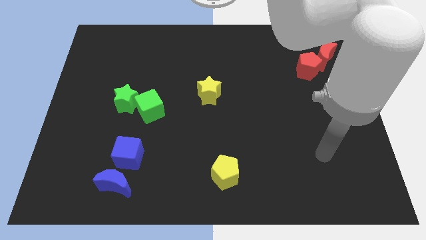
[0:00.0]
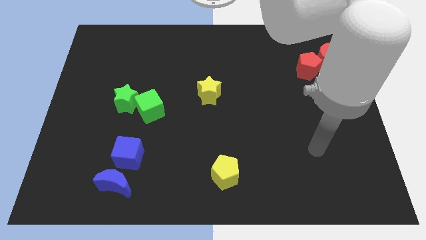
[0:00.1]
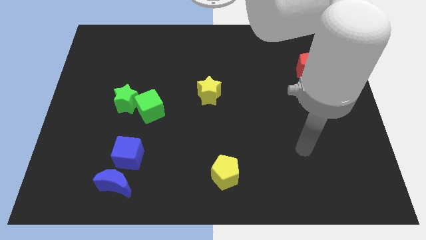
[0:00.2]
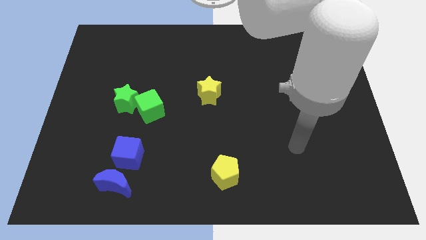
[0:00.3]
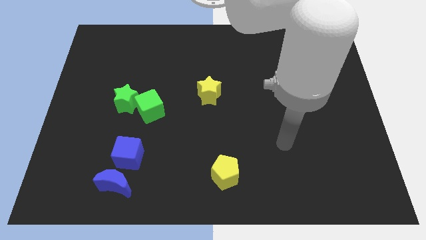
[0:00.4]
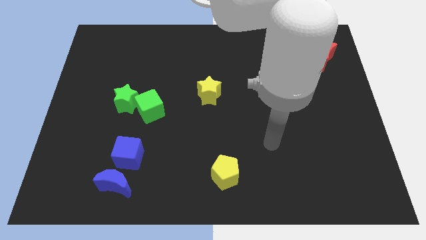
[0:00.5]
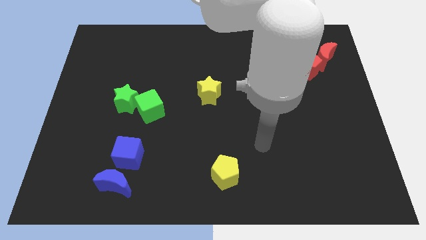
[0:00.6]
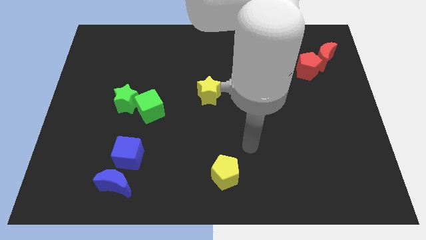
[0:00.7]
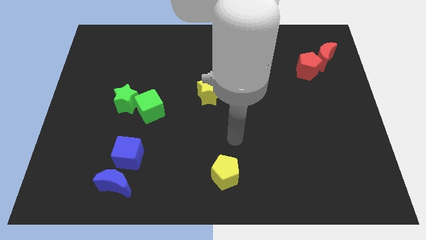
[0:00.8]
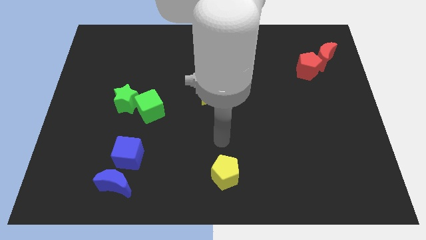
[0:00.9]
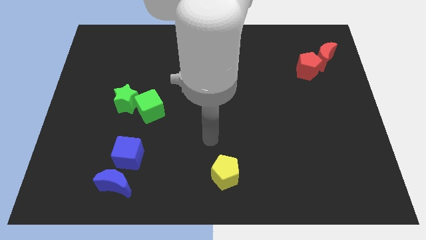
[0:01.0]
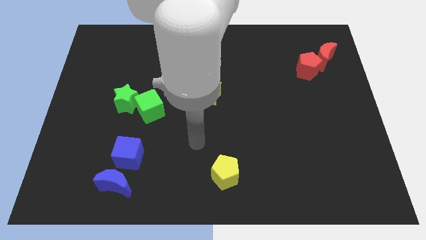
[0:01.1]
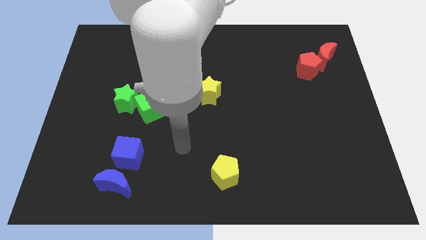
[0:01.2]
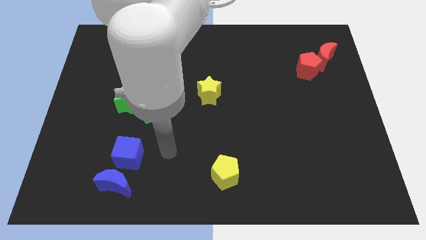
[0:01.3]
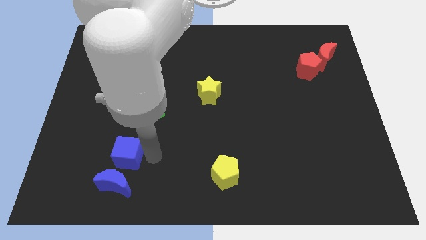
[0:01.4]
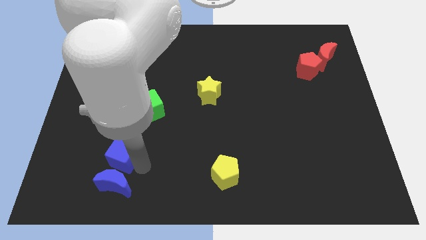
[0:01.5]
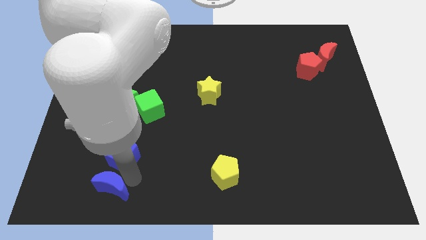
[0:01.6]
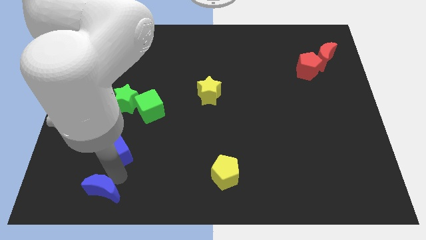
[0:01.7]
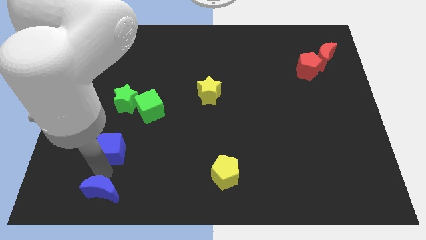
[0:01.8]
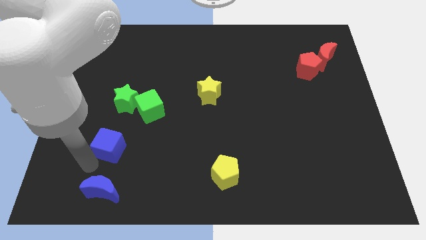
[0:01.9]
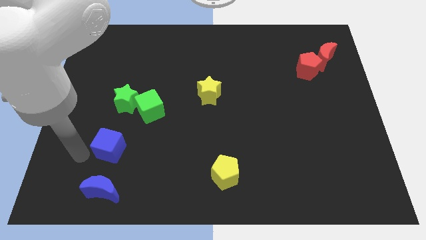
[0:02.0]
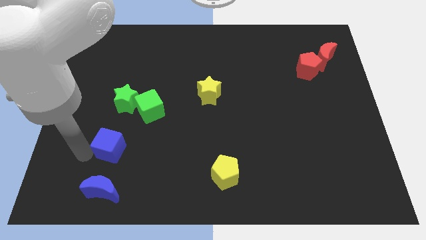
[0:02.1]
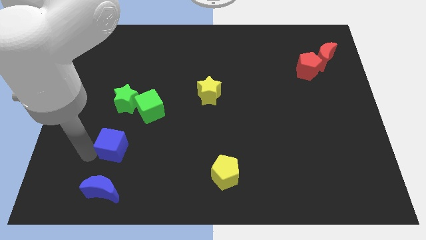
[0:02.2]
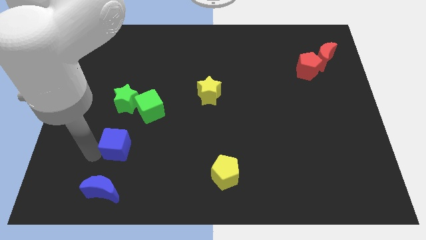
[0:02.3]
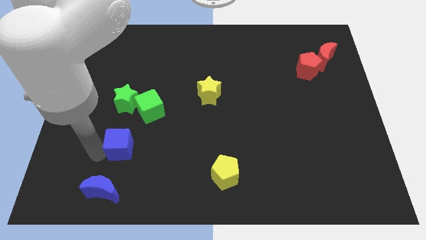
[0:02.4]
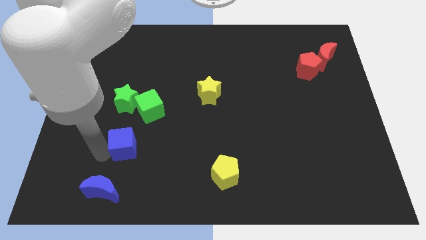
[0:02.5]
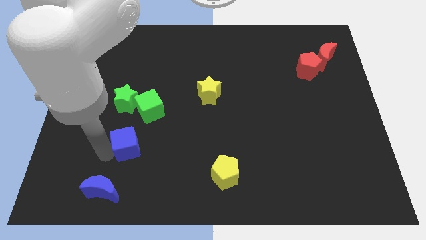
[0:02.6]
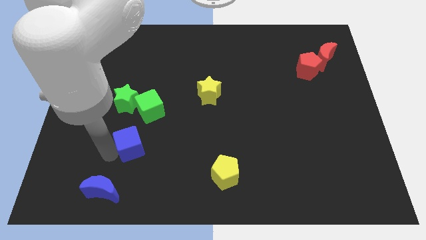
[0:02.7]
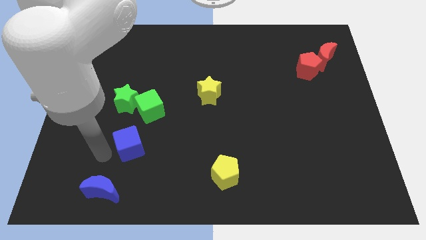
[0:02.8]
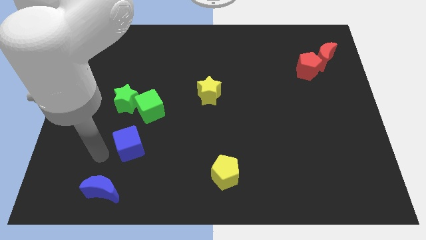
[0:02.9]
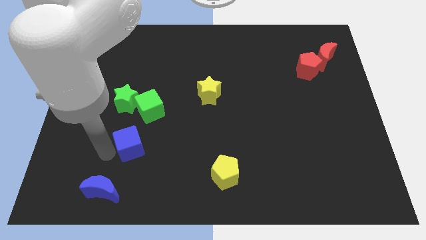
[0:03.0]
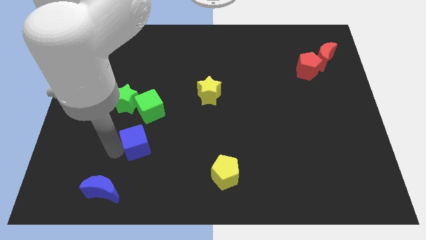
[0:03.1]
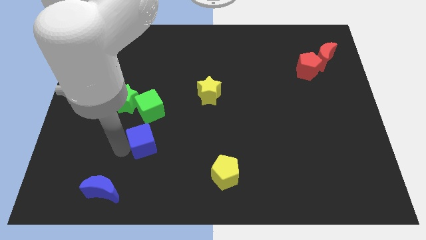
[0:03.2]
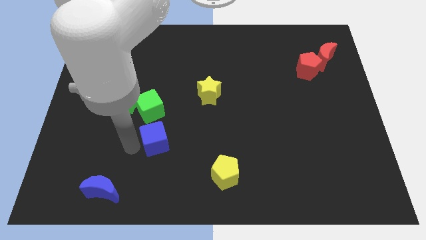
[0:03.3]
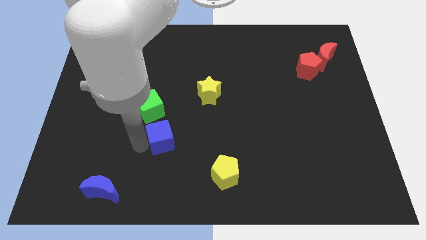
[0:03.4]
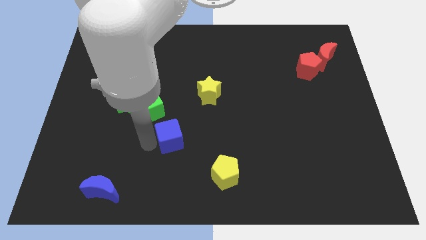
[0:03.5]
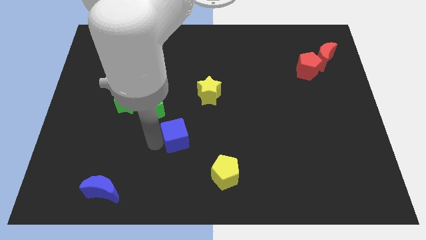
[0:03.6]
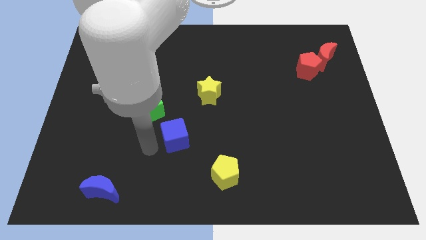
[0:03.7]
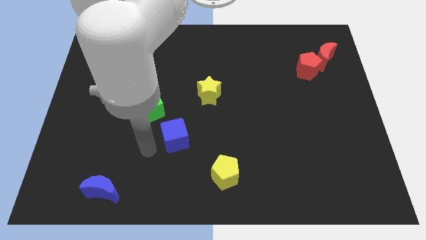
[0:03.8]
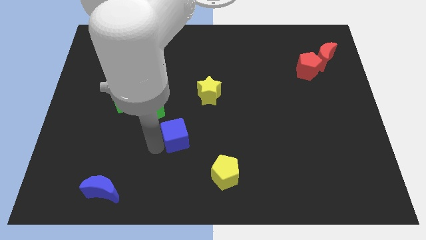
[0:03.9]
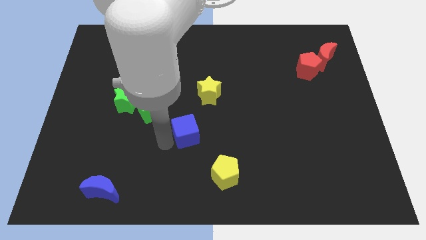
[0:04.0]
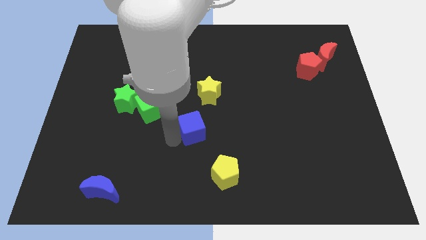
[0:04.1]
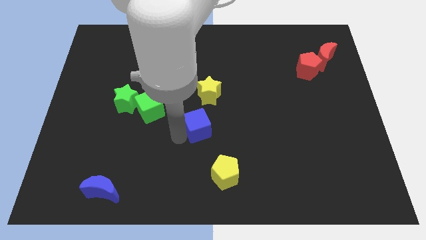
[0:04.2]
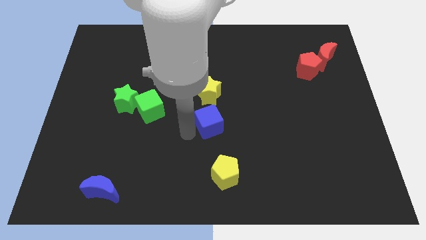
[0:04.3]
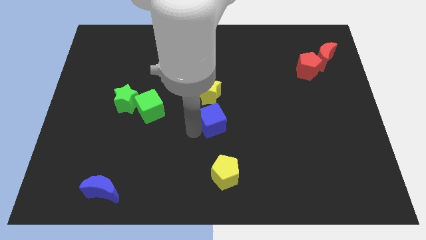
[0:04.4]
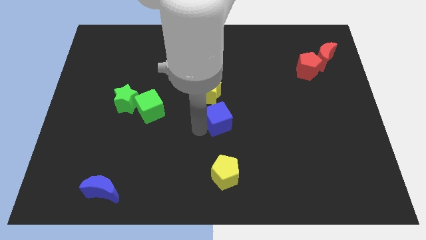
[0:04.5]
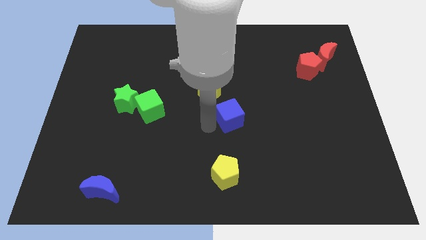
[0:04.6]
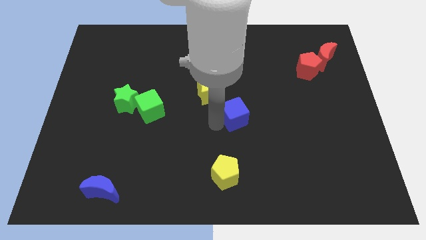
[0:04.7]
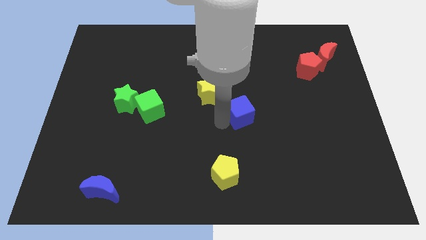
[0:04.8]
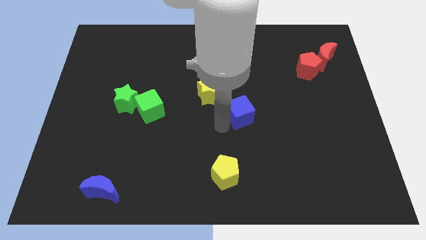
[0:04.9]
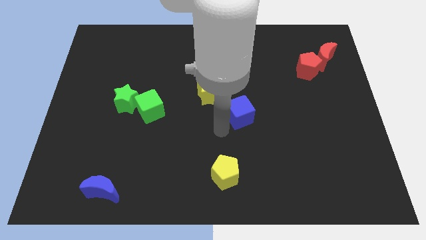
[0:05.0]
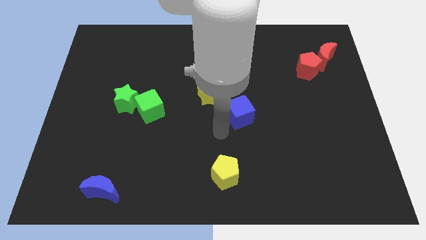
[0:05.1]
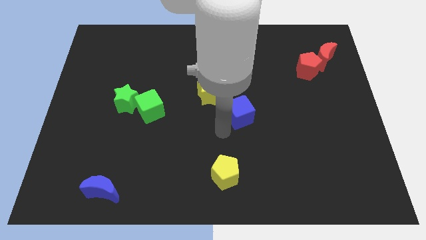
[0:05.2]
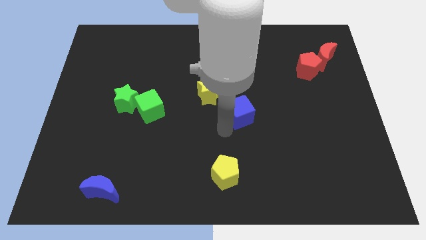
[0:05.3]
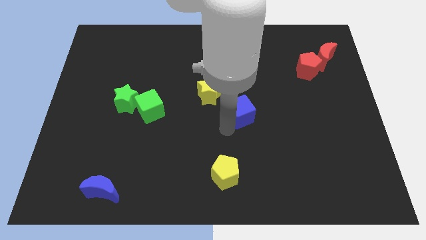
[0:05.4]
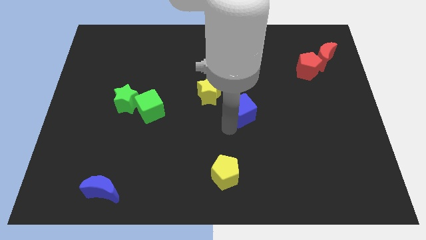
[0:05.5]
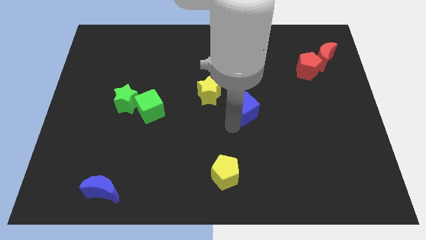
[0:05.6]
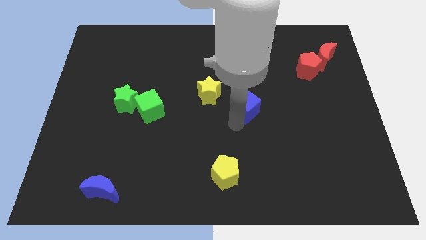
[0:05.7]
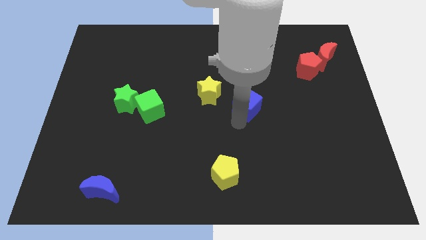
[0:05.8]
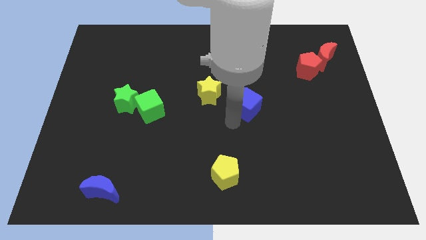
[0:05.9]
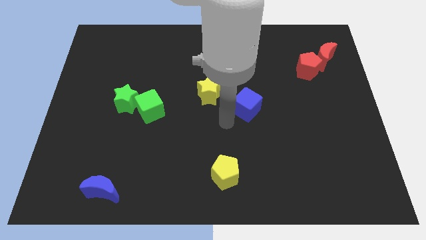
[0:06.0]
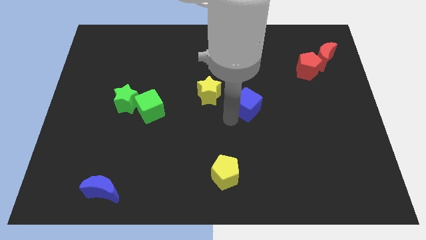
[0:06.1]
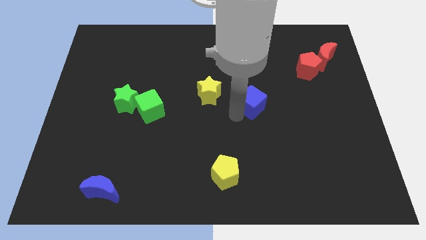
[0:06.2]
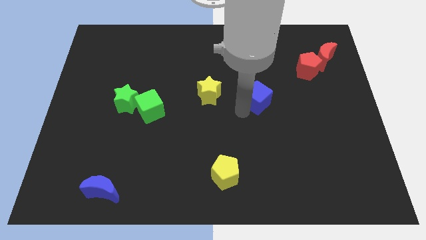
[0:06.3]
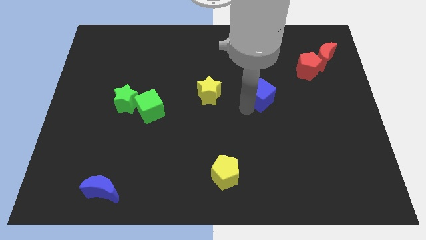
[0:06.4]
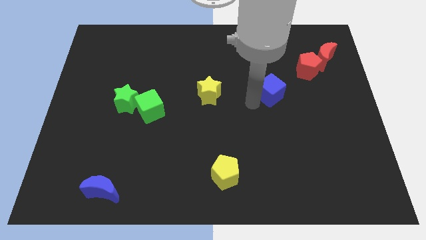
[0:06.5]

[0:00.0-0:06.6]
slide the blue cube to the bottom left side of the red pentagon

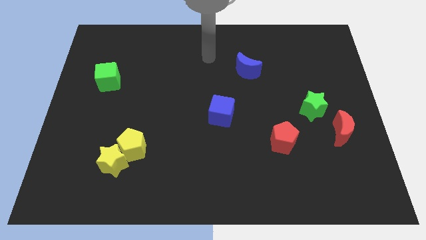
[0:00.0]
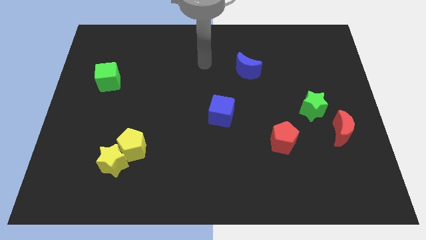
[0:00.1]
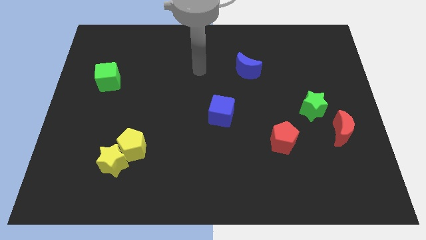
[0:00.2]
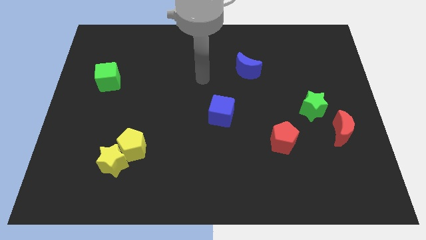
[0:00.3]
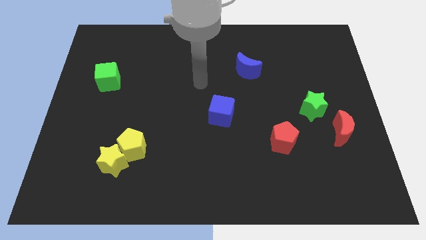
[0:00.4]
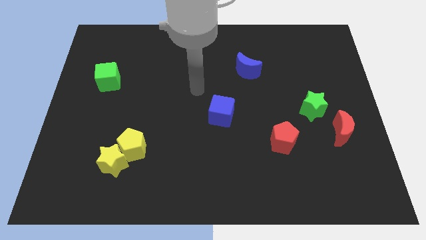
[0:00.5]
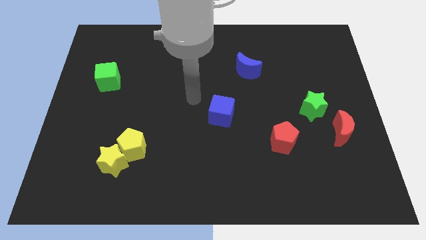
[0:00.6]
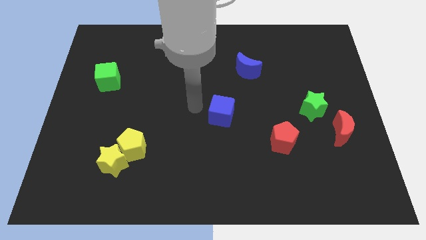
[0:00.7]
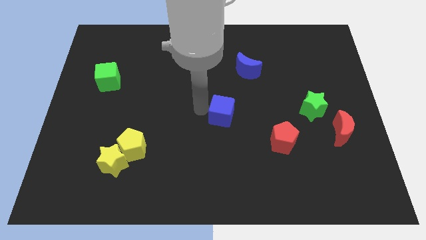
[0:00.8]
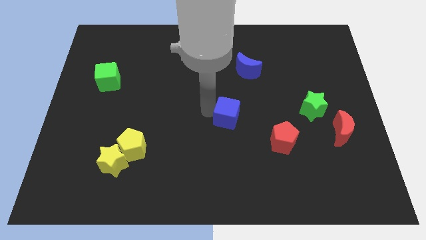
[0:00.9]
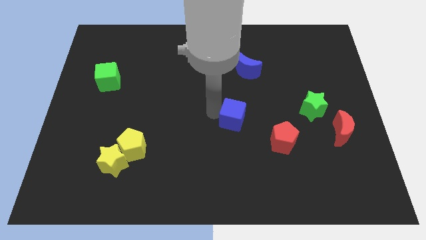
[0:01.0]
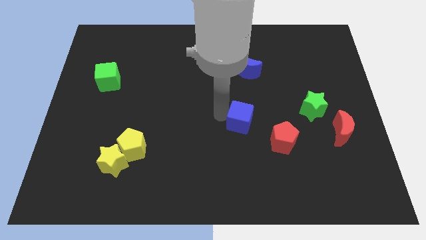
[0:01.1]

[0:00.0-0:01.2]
move the blue cube to the top left of the red pentagon
